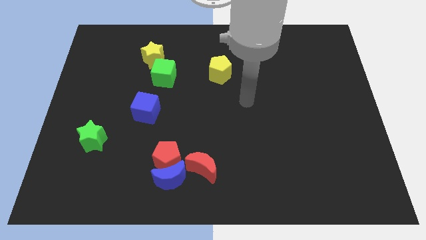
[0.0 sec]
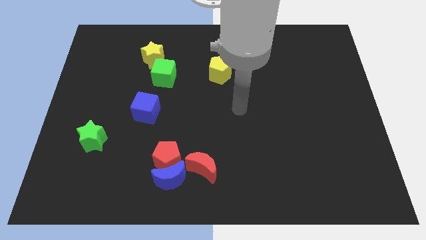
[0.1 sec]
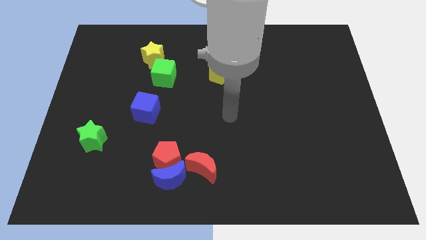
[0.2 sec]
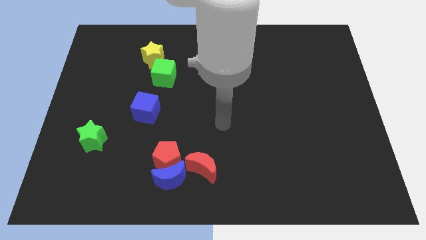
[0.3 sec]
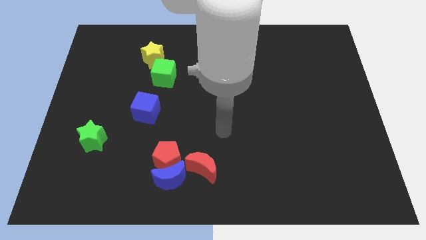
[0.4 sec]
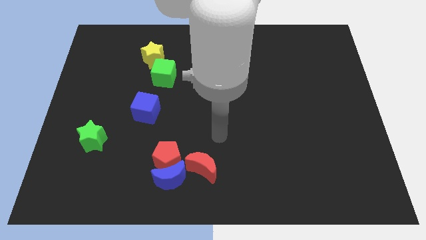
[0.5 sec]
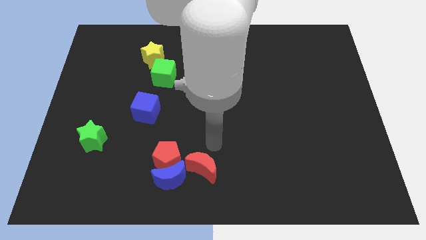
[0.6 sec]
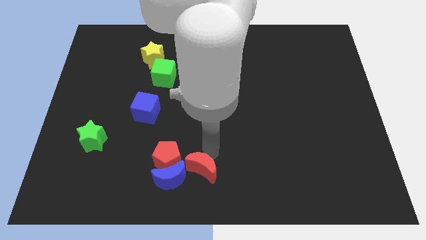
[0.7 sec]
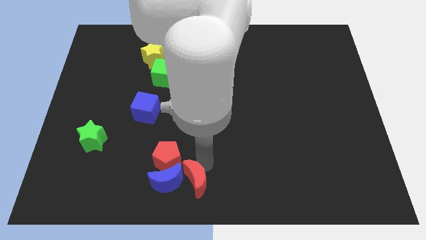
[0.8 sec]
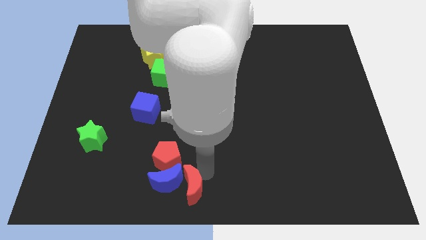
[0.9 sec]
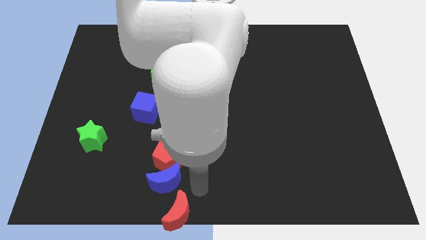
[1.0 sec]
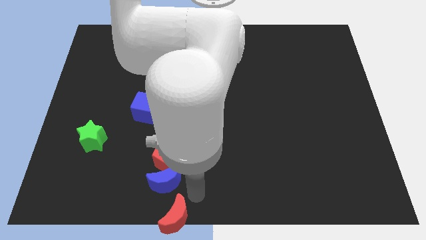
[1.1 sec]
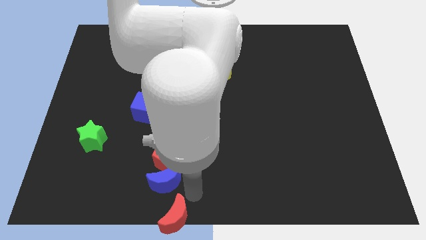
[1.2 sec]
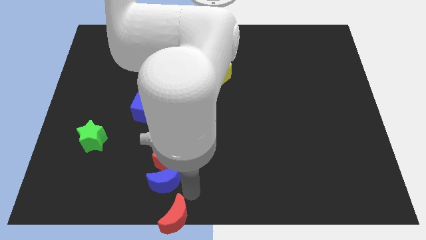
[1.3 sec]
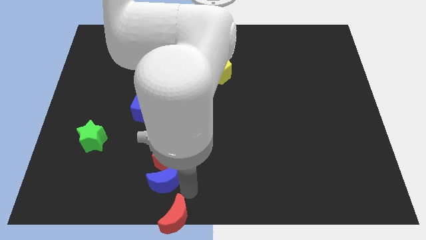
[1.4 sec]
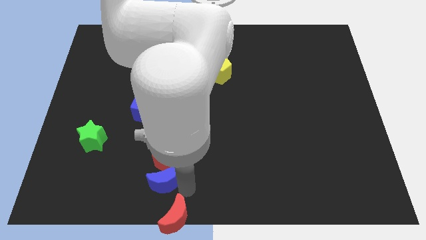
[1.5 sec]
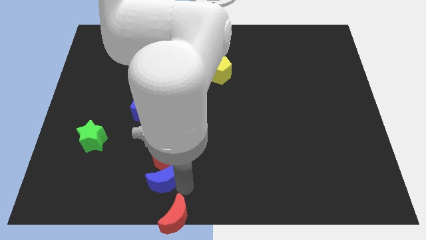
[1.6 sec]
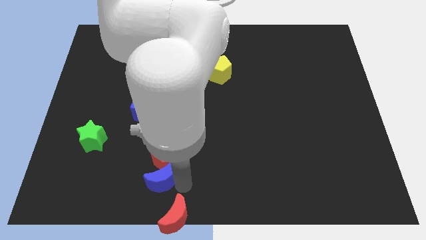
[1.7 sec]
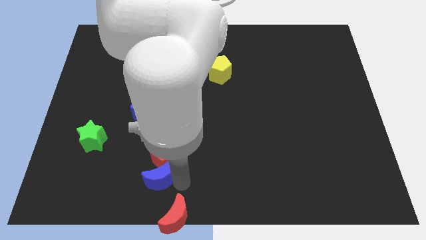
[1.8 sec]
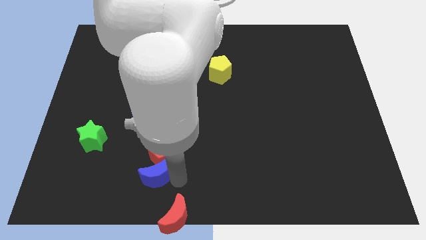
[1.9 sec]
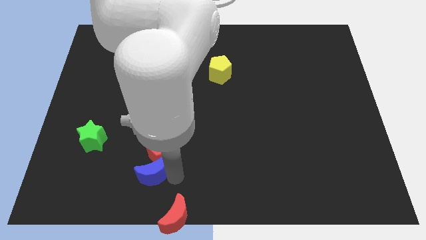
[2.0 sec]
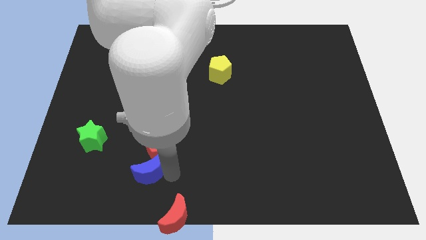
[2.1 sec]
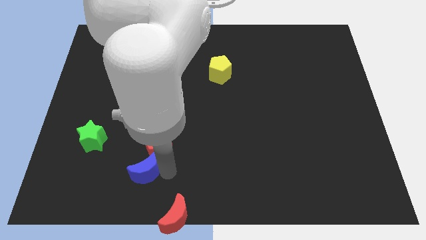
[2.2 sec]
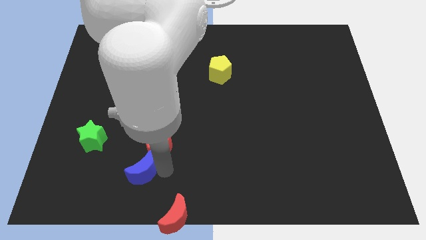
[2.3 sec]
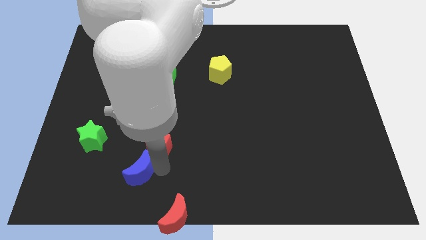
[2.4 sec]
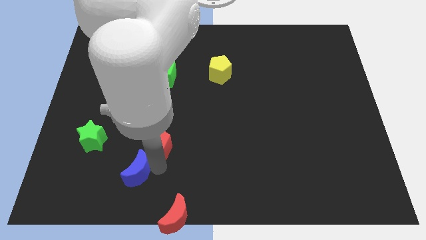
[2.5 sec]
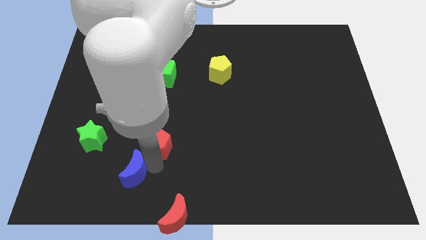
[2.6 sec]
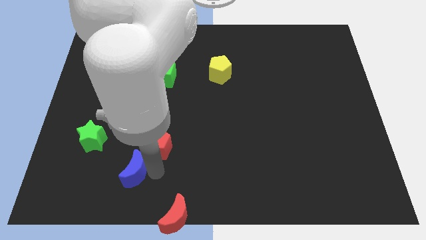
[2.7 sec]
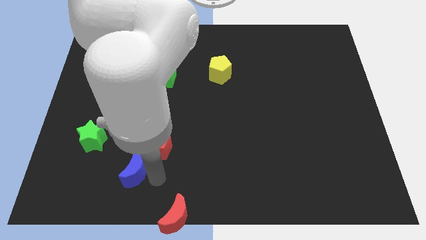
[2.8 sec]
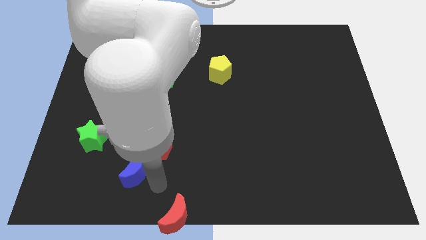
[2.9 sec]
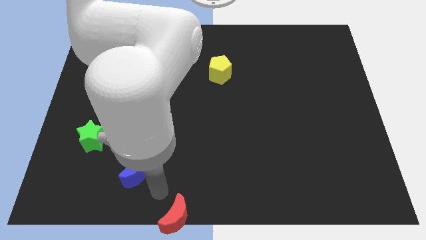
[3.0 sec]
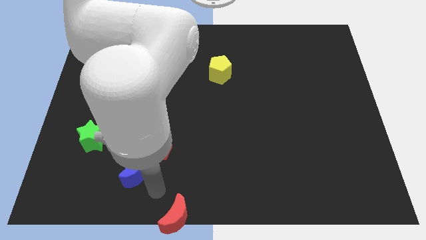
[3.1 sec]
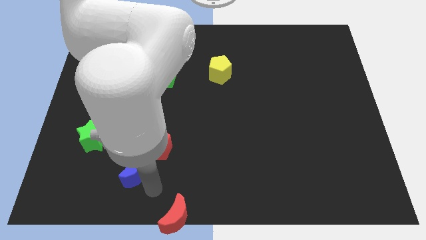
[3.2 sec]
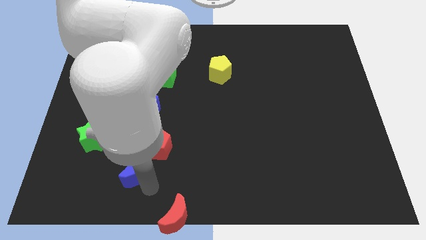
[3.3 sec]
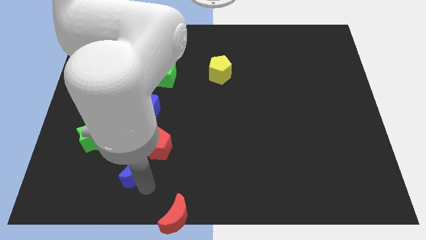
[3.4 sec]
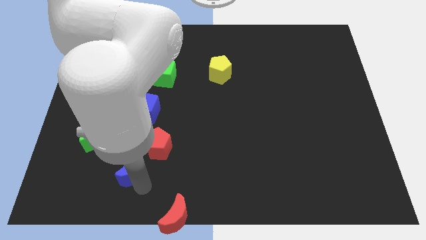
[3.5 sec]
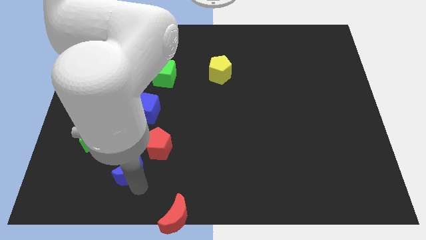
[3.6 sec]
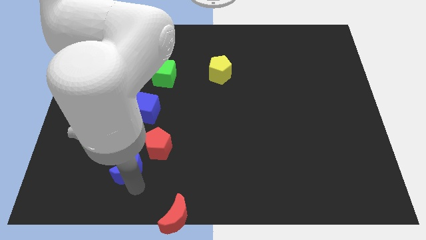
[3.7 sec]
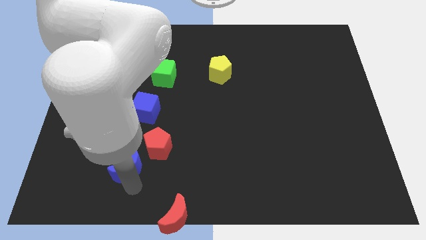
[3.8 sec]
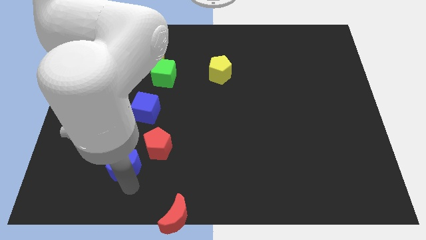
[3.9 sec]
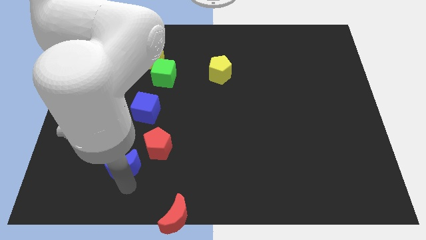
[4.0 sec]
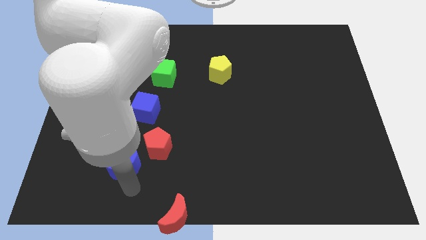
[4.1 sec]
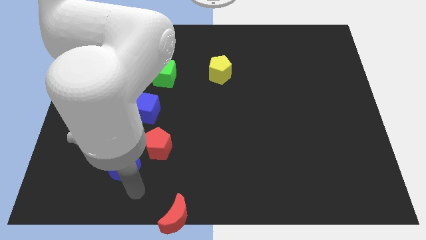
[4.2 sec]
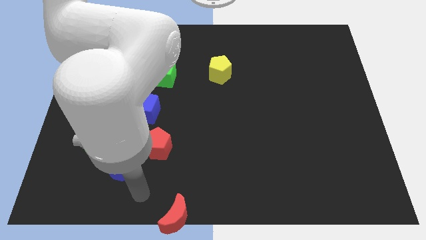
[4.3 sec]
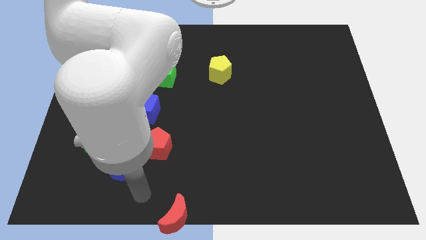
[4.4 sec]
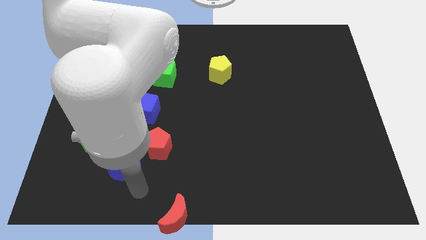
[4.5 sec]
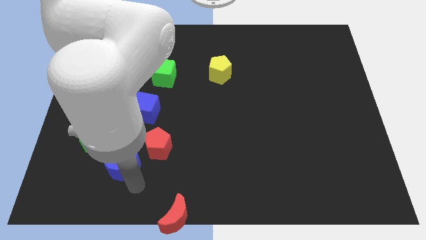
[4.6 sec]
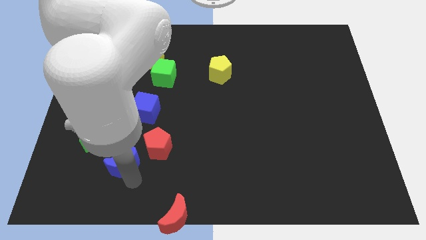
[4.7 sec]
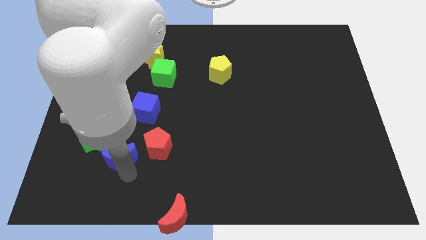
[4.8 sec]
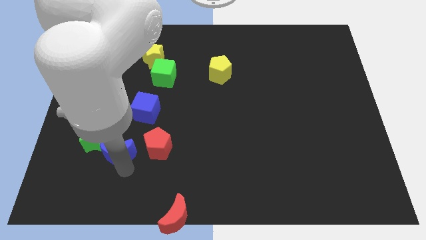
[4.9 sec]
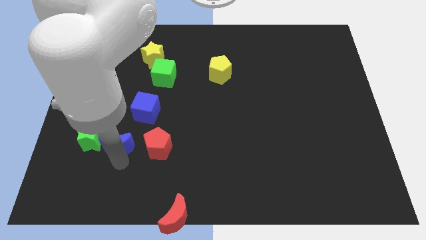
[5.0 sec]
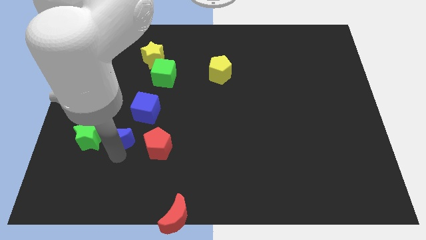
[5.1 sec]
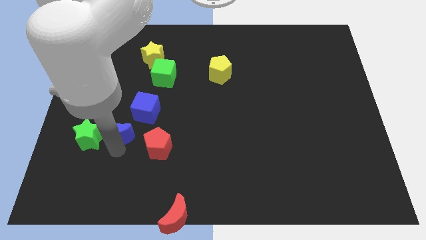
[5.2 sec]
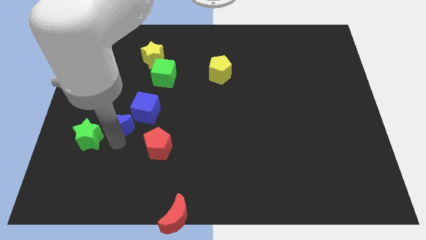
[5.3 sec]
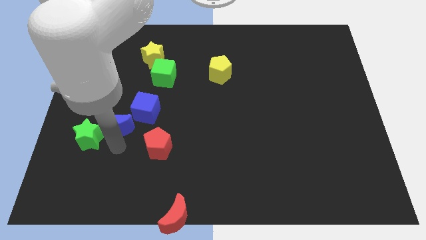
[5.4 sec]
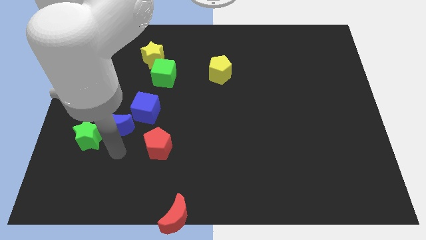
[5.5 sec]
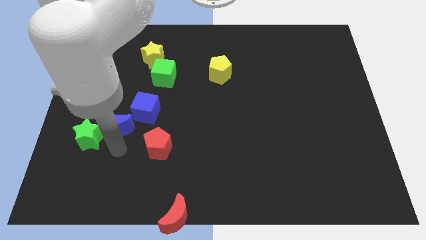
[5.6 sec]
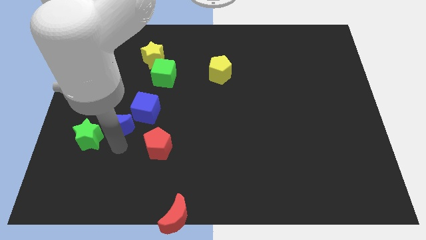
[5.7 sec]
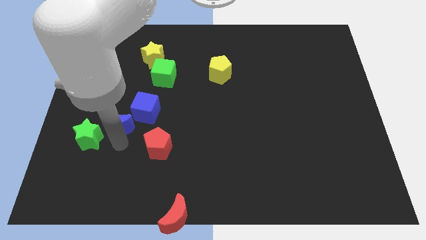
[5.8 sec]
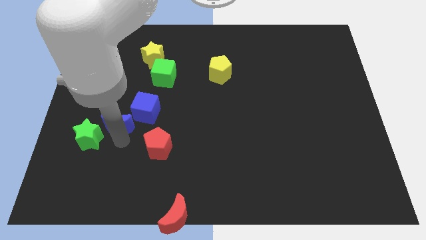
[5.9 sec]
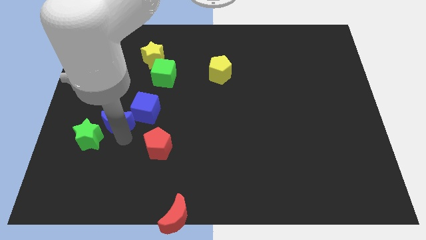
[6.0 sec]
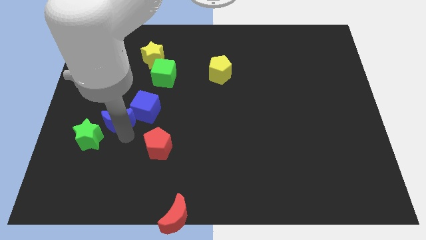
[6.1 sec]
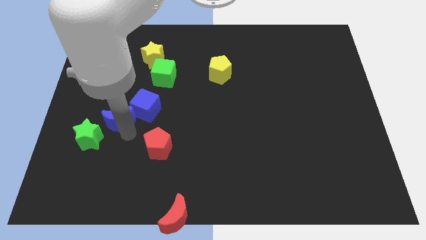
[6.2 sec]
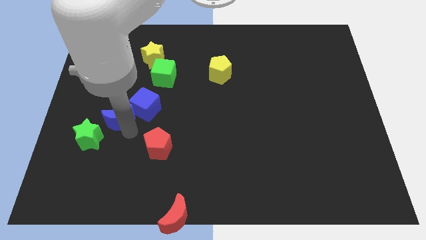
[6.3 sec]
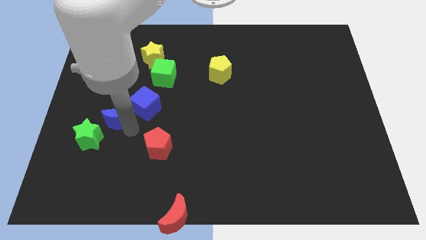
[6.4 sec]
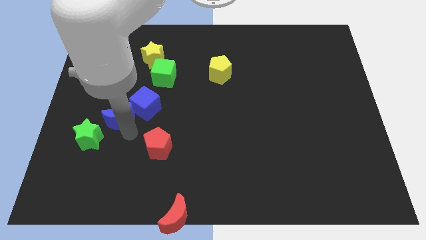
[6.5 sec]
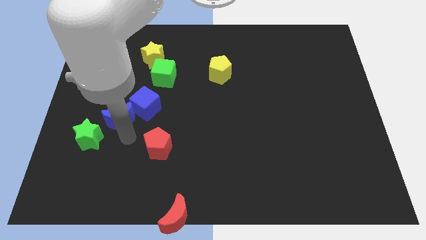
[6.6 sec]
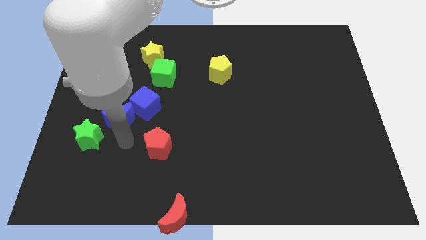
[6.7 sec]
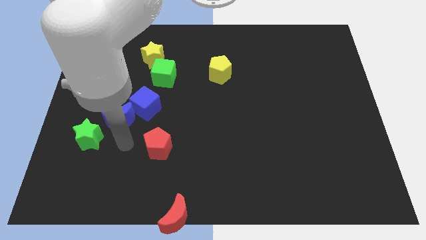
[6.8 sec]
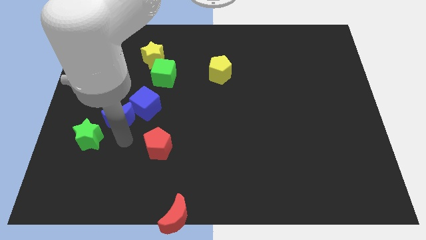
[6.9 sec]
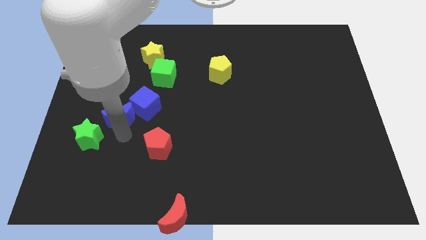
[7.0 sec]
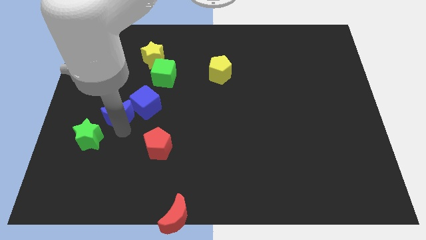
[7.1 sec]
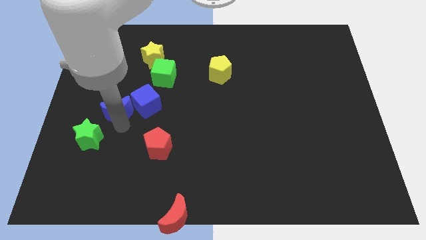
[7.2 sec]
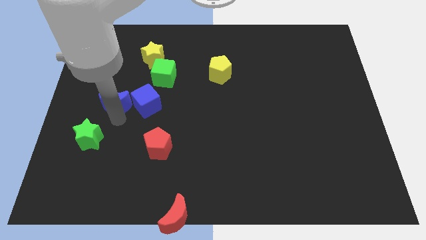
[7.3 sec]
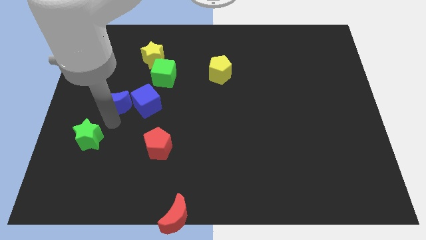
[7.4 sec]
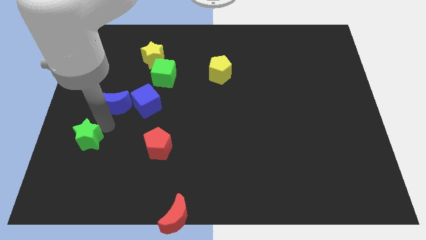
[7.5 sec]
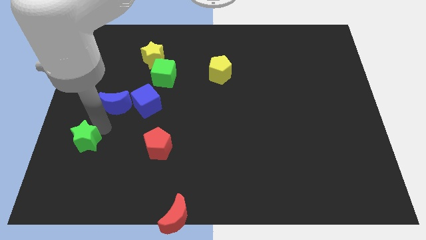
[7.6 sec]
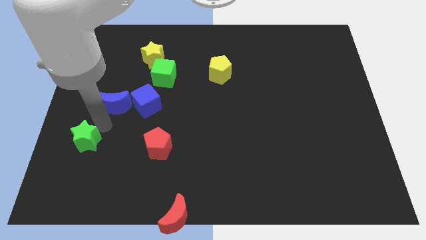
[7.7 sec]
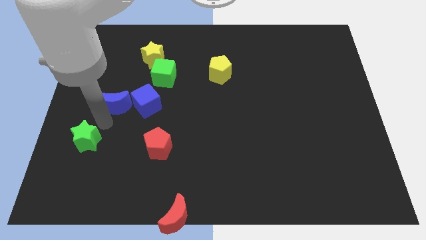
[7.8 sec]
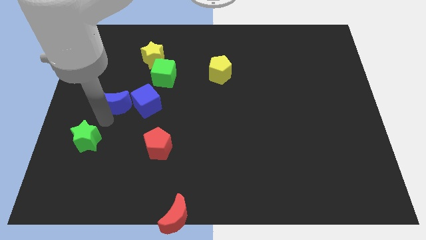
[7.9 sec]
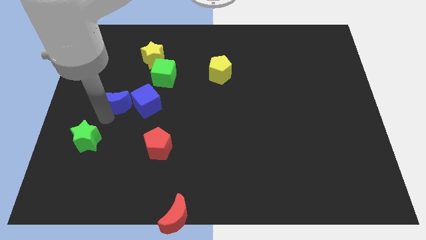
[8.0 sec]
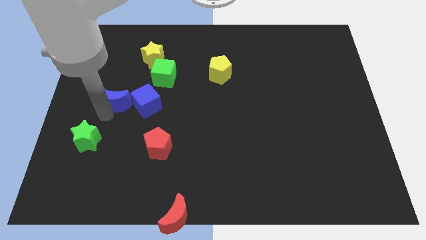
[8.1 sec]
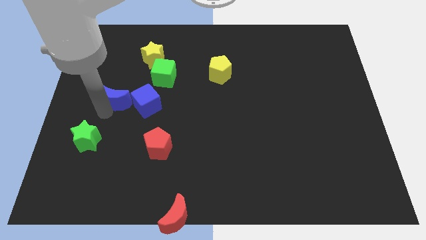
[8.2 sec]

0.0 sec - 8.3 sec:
put the blue moon to the top left of the blue cube
